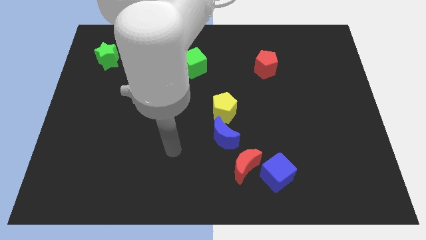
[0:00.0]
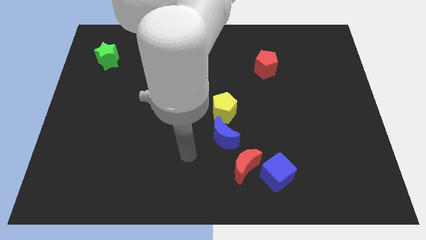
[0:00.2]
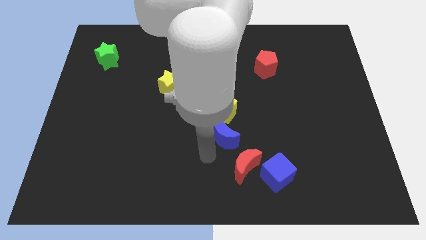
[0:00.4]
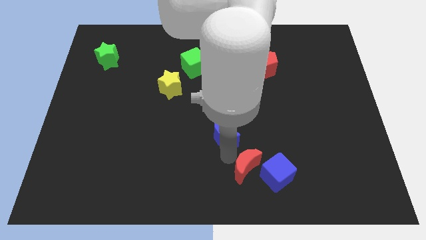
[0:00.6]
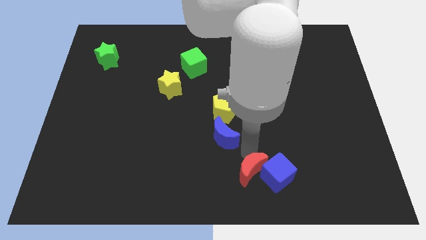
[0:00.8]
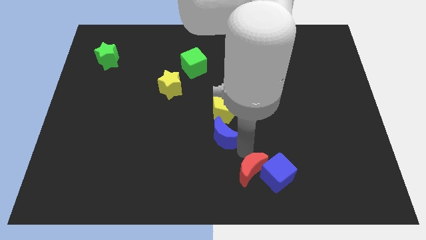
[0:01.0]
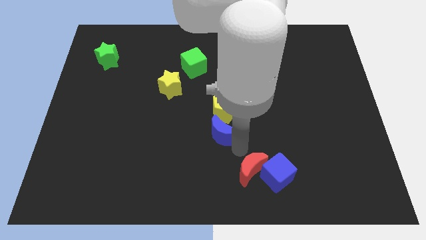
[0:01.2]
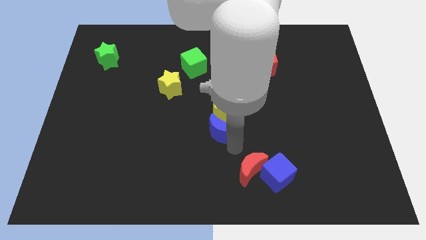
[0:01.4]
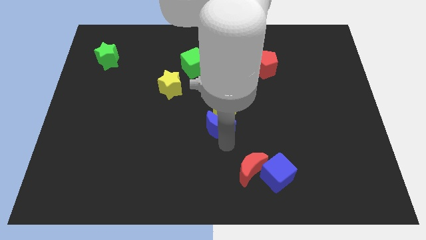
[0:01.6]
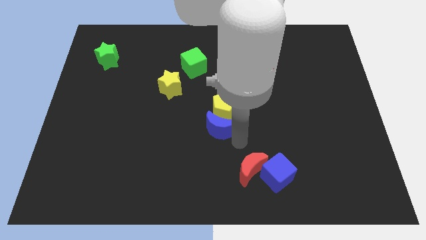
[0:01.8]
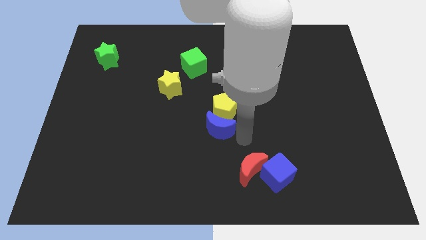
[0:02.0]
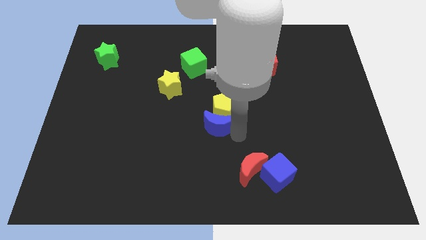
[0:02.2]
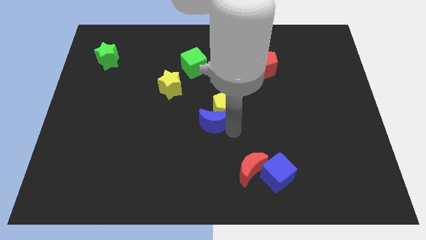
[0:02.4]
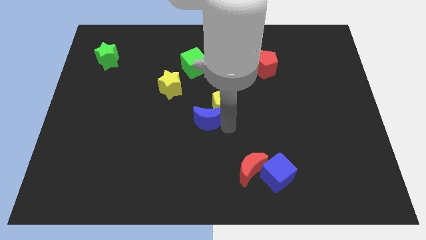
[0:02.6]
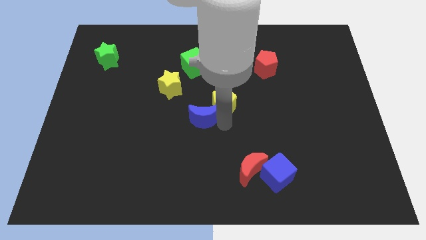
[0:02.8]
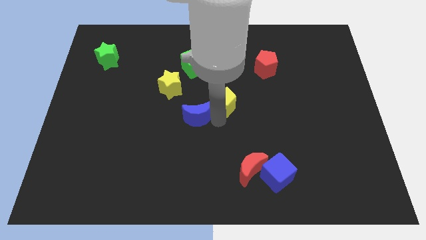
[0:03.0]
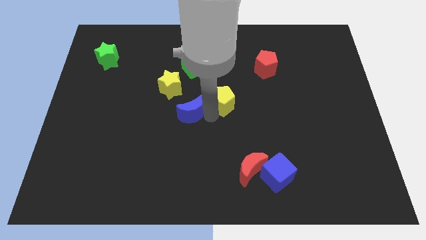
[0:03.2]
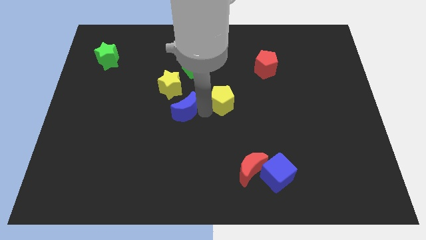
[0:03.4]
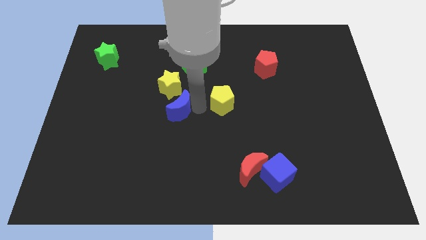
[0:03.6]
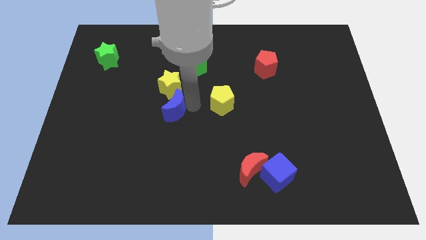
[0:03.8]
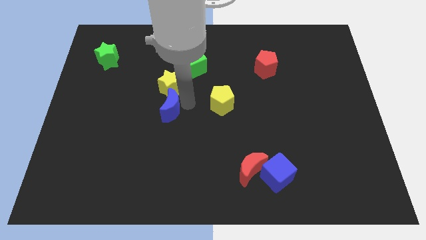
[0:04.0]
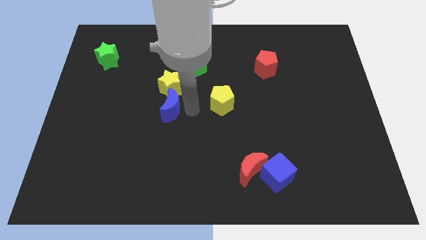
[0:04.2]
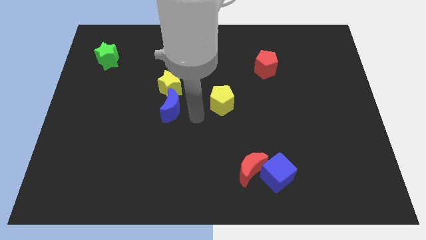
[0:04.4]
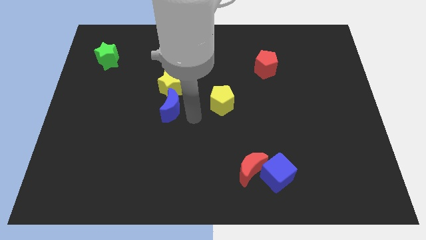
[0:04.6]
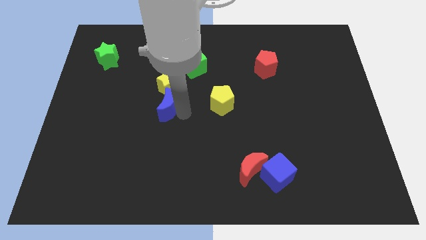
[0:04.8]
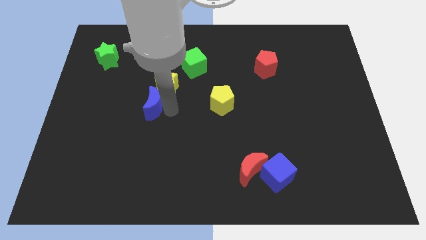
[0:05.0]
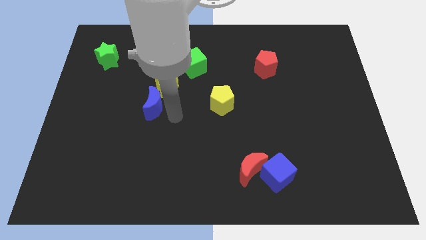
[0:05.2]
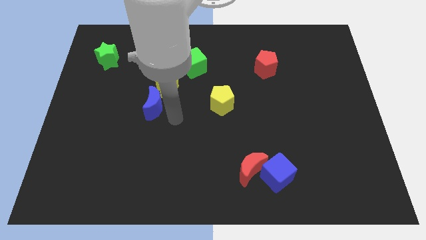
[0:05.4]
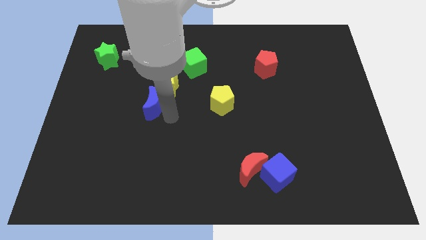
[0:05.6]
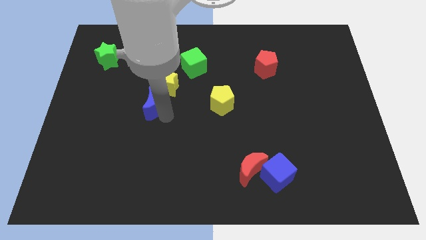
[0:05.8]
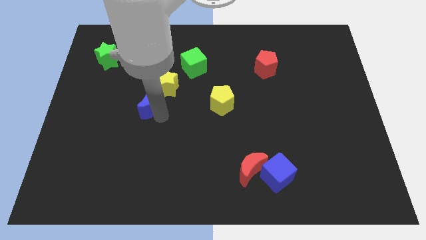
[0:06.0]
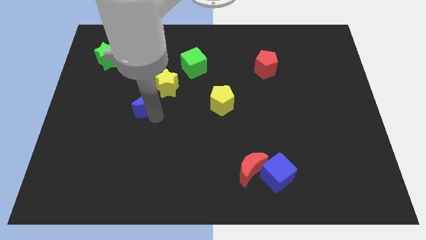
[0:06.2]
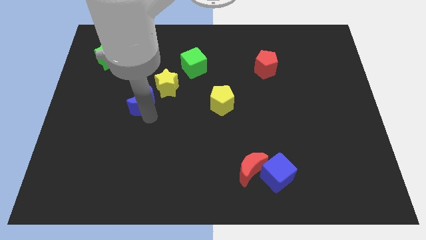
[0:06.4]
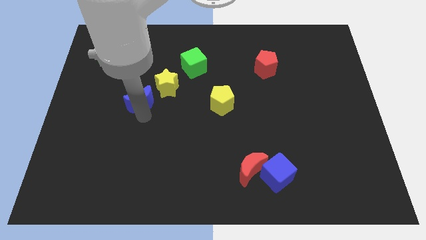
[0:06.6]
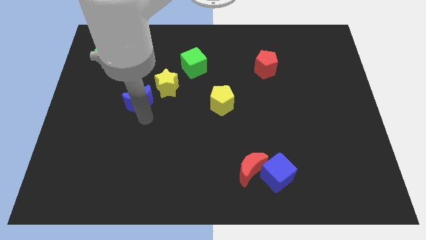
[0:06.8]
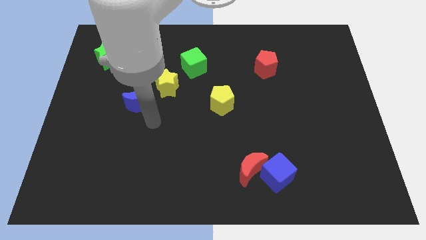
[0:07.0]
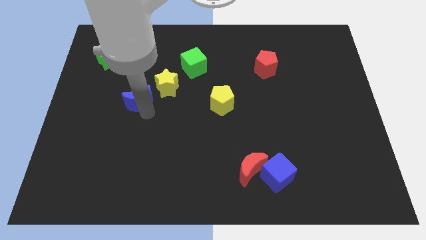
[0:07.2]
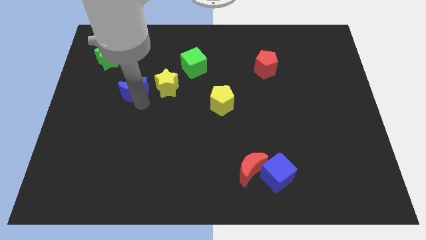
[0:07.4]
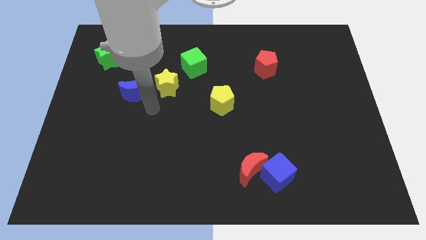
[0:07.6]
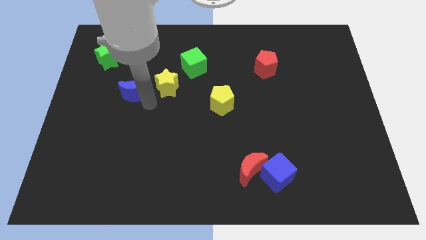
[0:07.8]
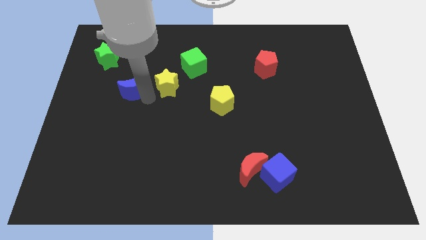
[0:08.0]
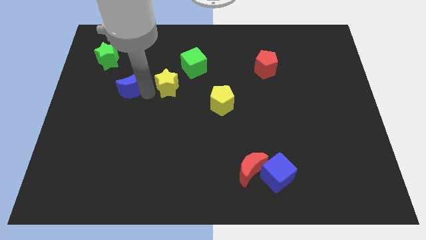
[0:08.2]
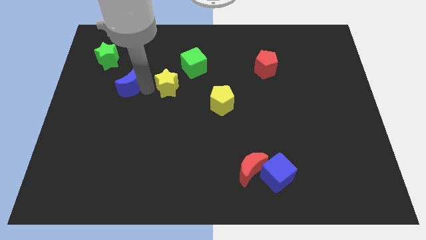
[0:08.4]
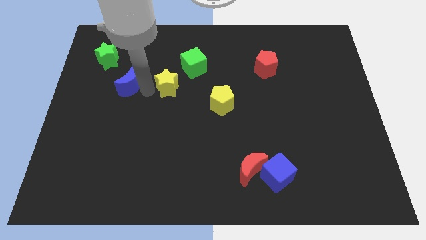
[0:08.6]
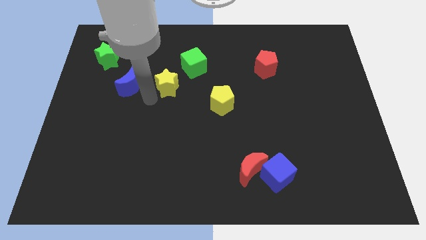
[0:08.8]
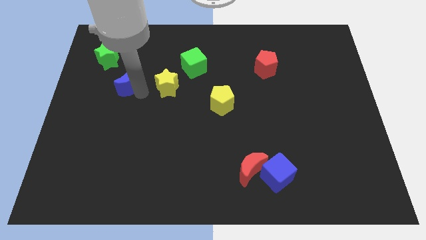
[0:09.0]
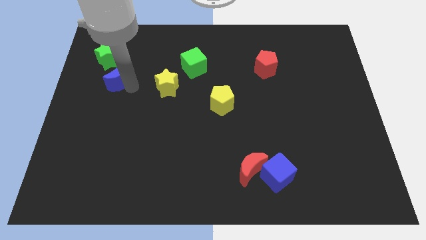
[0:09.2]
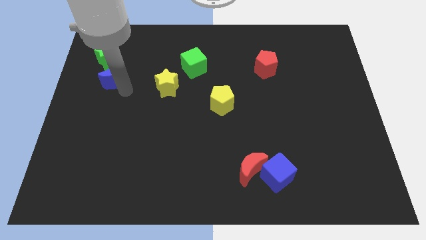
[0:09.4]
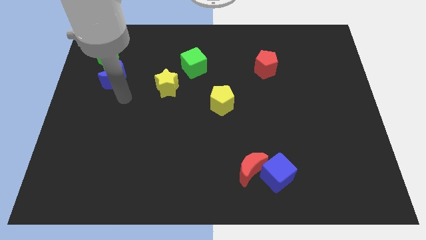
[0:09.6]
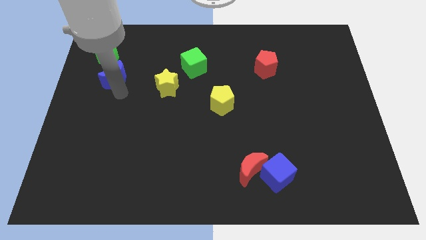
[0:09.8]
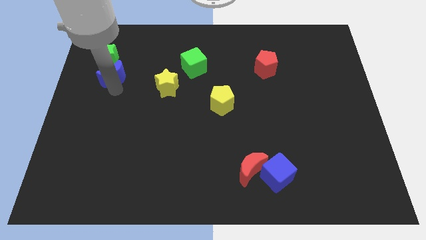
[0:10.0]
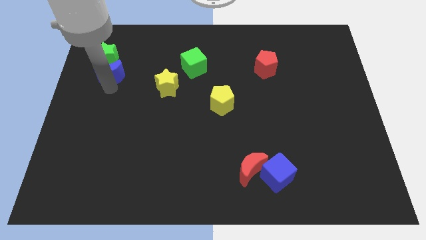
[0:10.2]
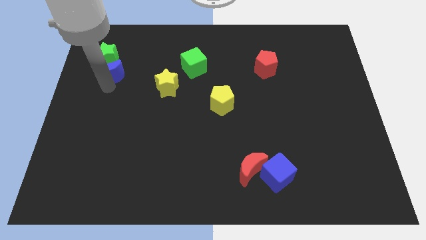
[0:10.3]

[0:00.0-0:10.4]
push the blue moon next to the green star

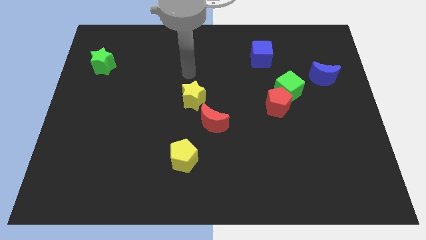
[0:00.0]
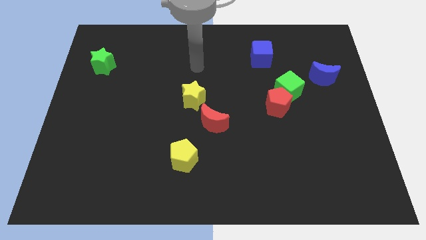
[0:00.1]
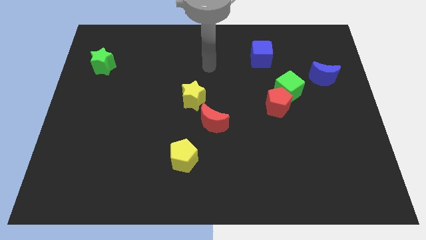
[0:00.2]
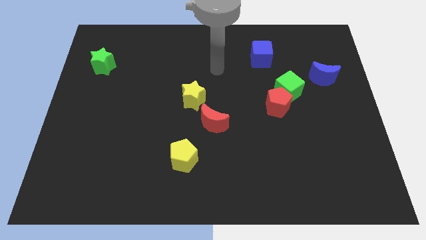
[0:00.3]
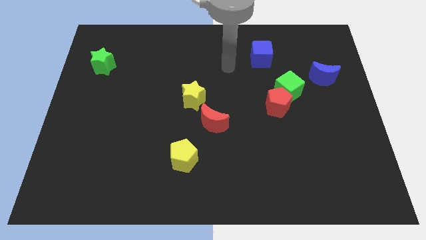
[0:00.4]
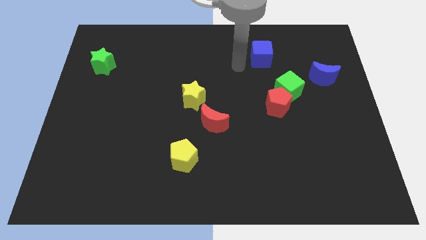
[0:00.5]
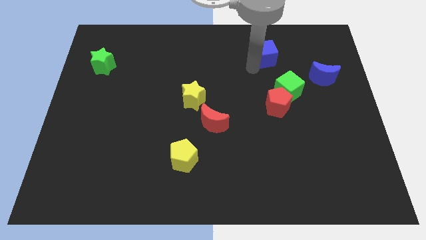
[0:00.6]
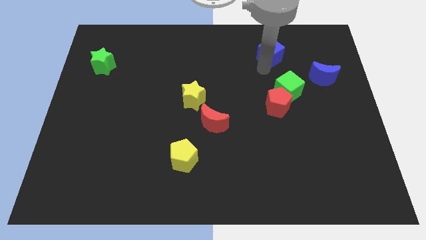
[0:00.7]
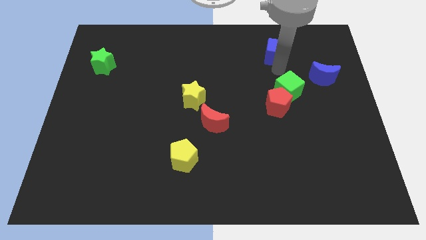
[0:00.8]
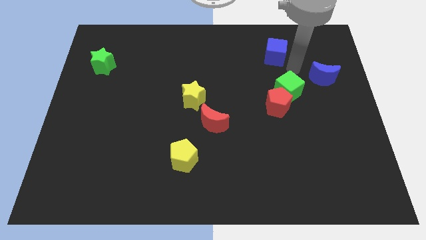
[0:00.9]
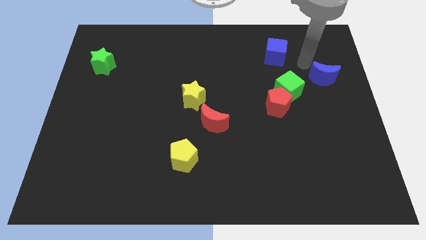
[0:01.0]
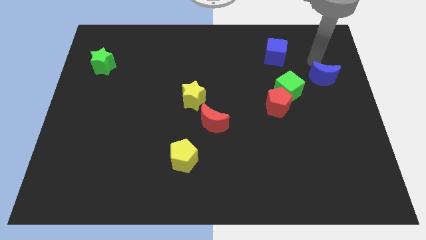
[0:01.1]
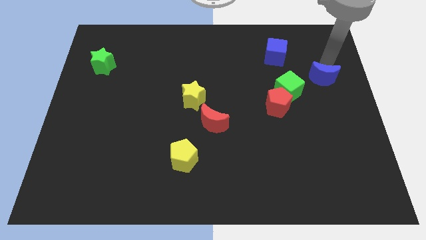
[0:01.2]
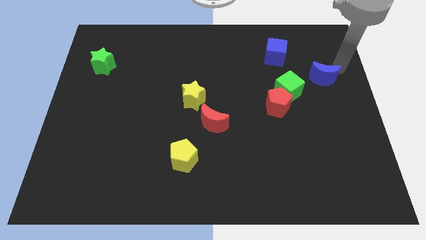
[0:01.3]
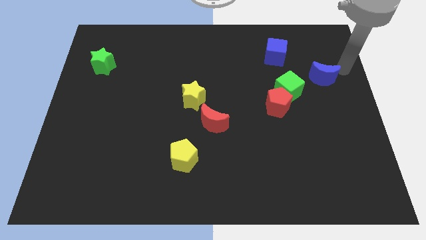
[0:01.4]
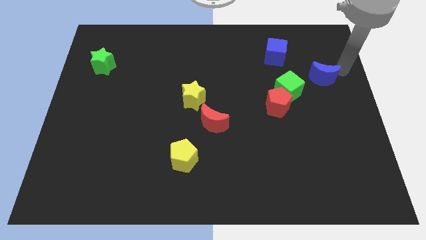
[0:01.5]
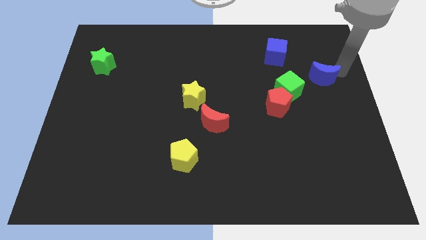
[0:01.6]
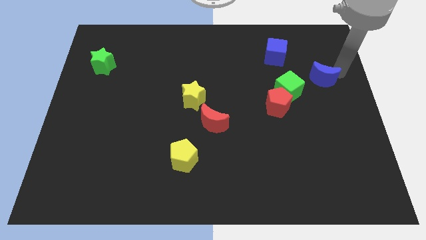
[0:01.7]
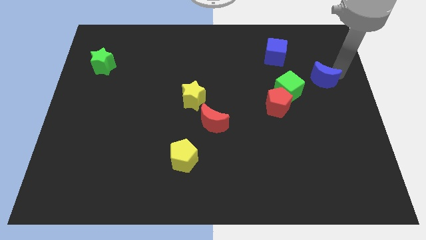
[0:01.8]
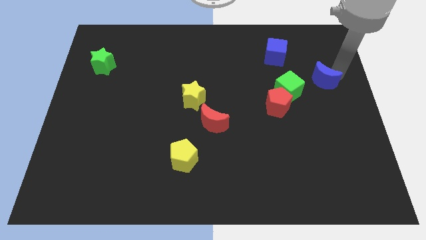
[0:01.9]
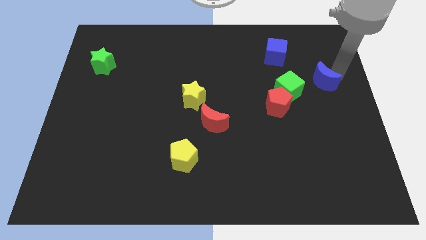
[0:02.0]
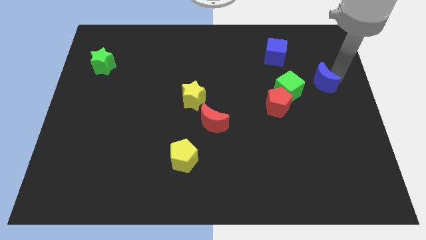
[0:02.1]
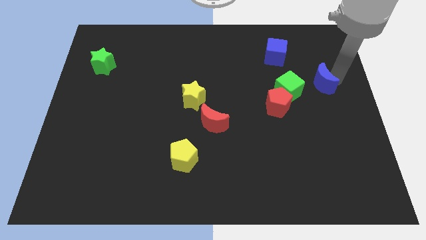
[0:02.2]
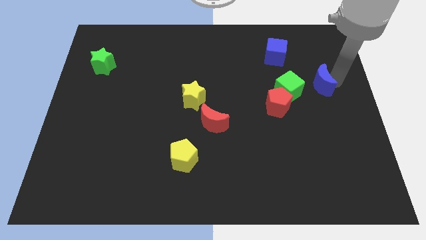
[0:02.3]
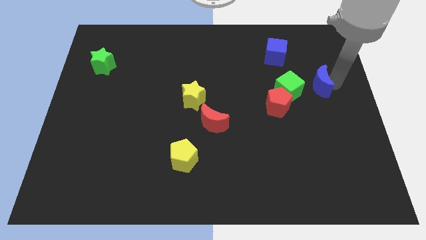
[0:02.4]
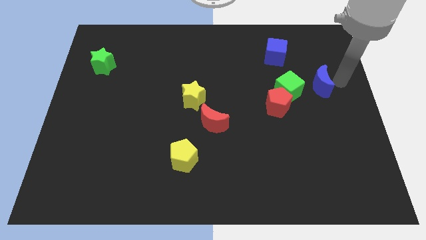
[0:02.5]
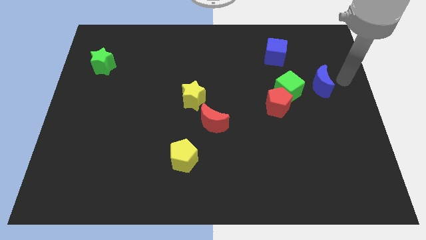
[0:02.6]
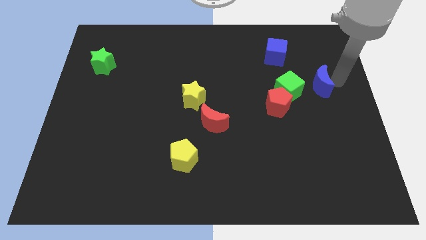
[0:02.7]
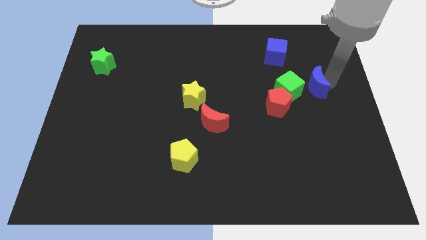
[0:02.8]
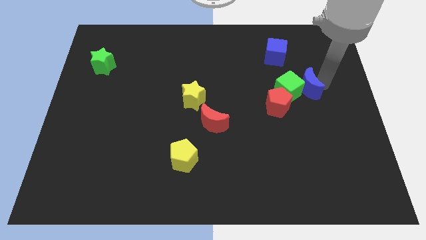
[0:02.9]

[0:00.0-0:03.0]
slide the blue moon close to the green cube

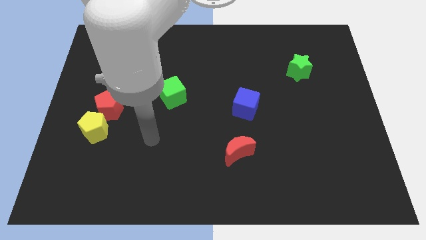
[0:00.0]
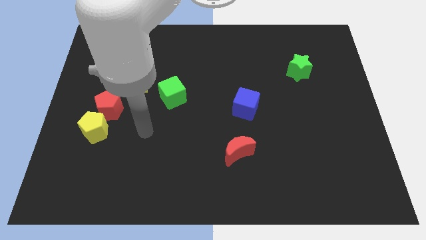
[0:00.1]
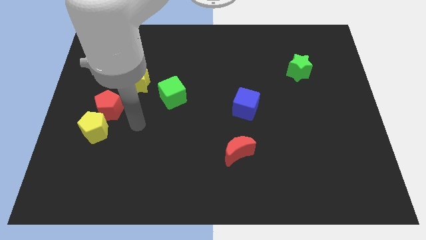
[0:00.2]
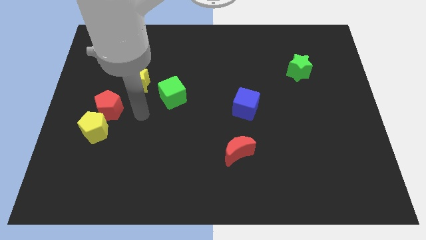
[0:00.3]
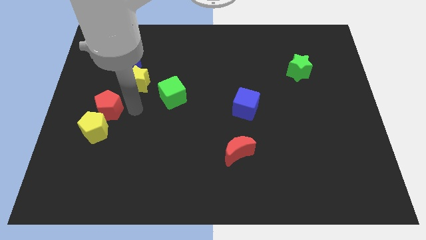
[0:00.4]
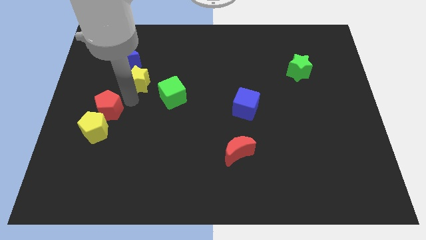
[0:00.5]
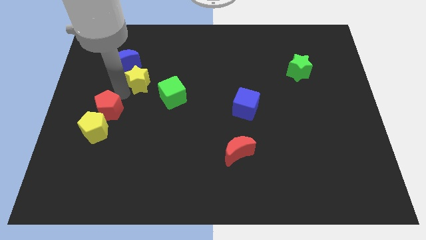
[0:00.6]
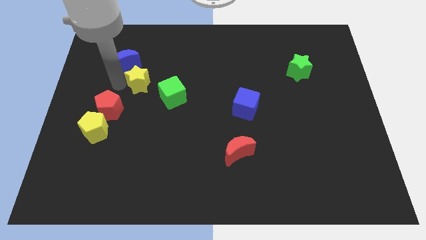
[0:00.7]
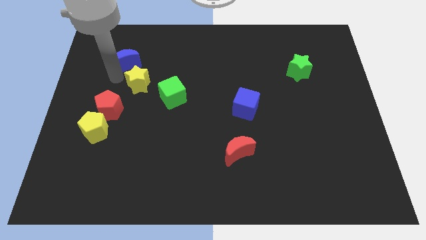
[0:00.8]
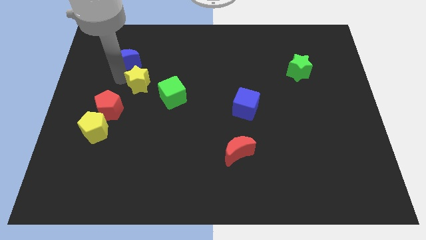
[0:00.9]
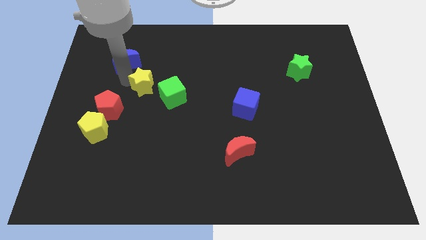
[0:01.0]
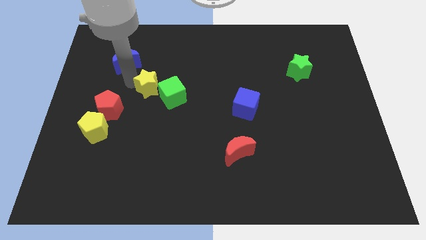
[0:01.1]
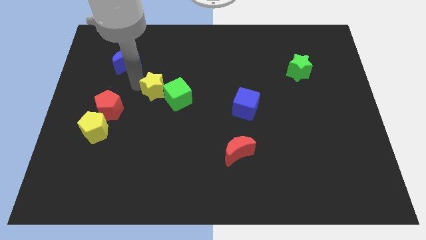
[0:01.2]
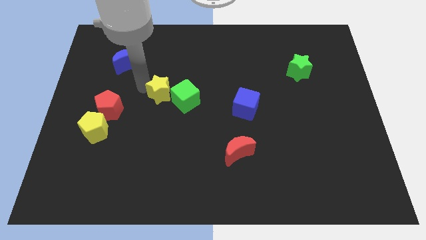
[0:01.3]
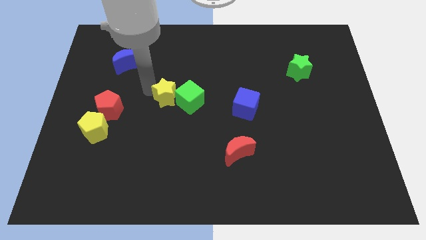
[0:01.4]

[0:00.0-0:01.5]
put the yellow star to the green cube
